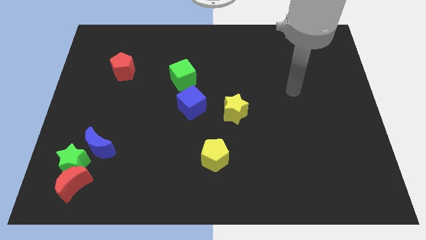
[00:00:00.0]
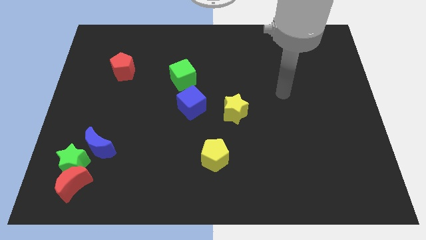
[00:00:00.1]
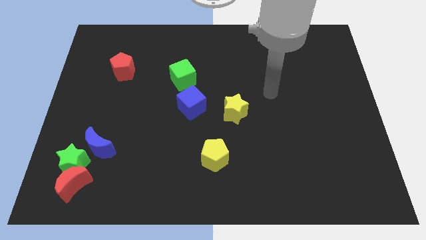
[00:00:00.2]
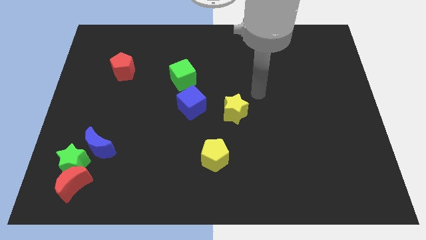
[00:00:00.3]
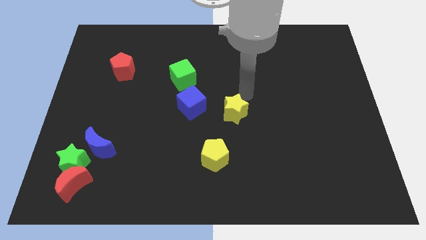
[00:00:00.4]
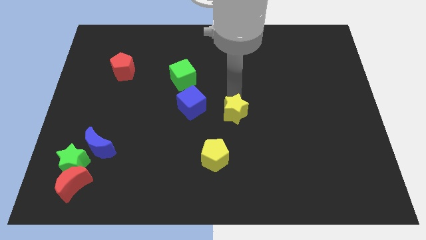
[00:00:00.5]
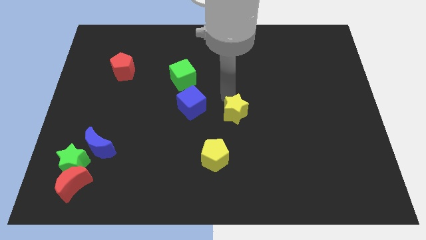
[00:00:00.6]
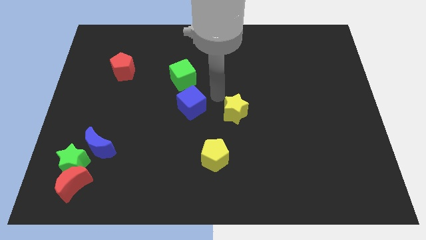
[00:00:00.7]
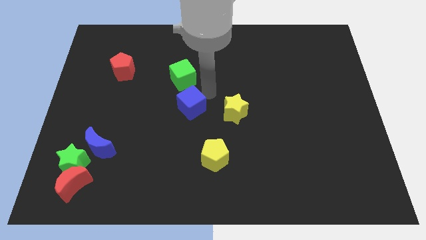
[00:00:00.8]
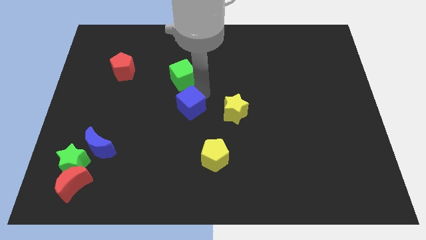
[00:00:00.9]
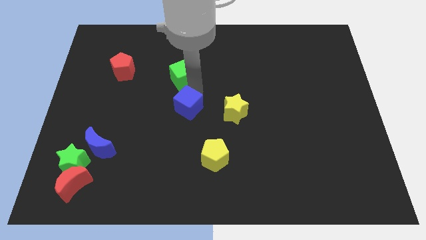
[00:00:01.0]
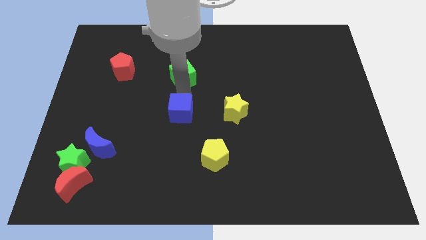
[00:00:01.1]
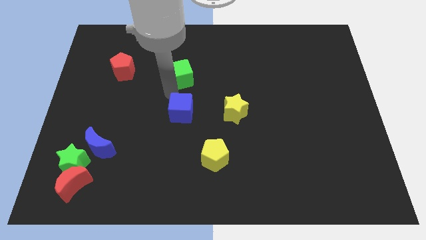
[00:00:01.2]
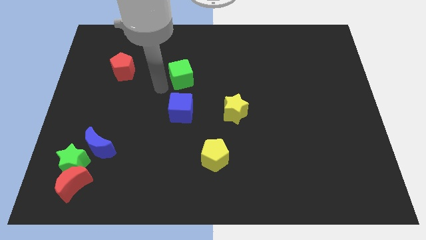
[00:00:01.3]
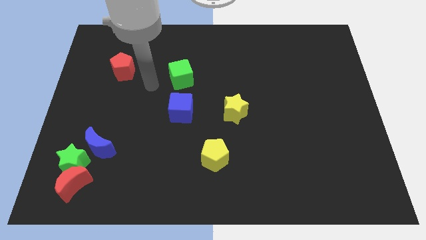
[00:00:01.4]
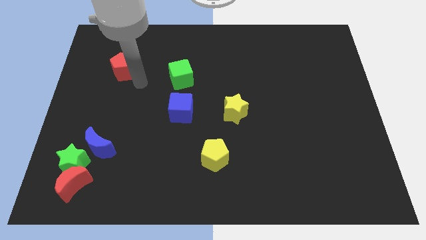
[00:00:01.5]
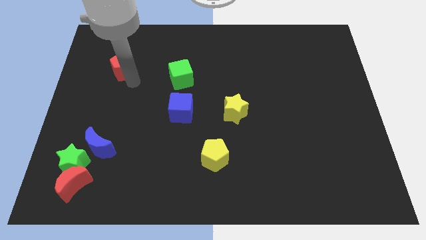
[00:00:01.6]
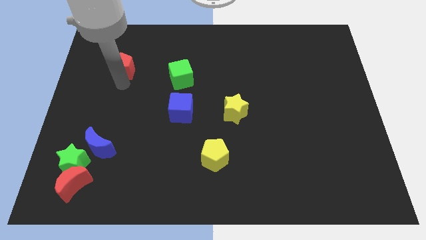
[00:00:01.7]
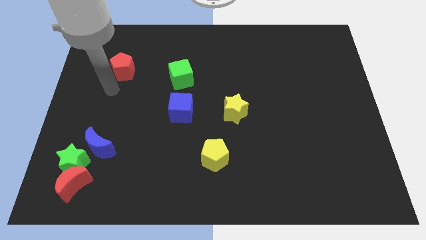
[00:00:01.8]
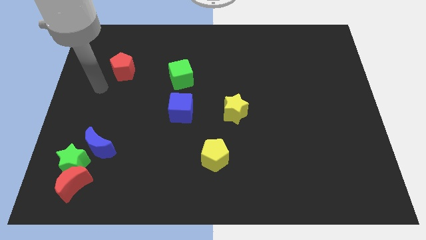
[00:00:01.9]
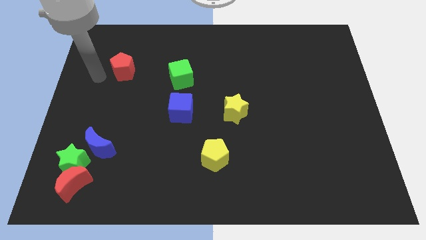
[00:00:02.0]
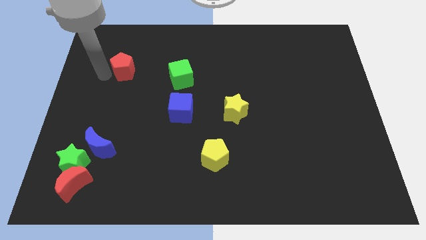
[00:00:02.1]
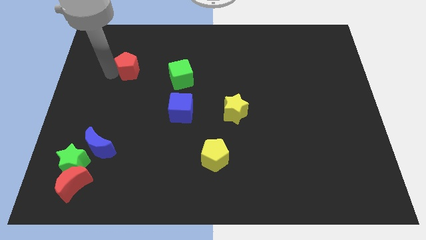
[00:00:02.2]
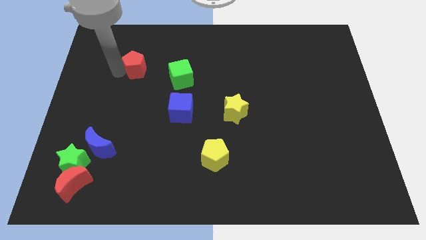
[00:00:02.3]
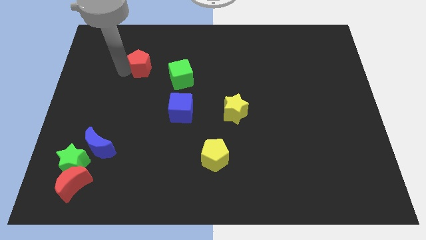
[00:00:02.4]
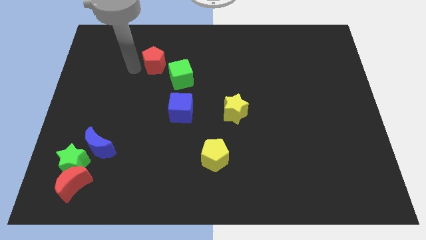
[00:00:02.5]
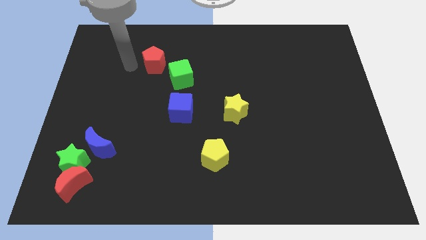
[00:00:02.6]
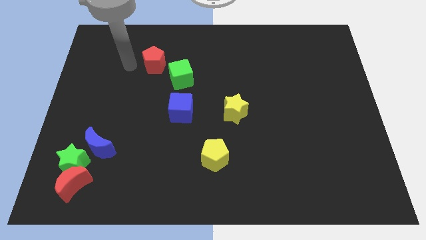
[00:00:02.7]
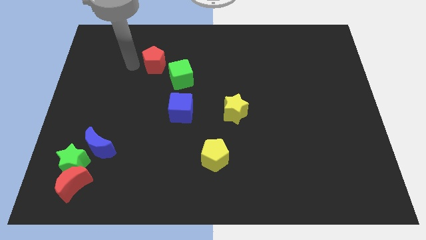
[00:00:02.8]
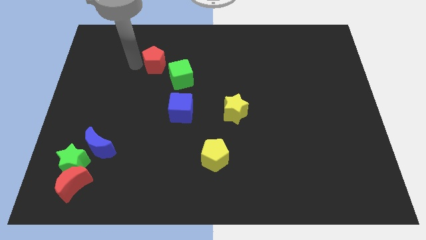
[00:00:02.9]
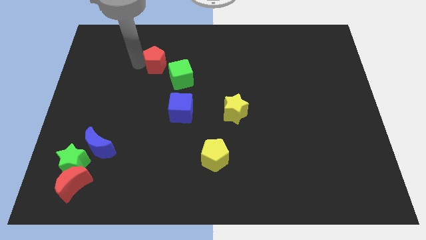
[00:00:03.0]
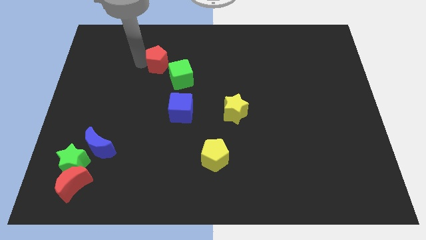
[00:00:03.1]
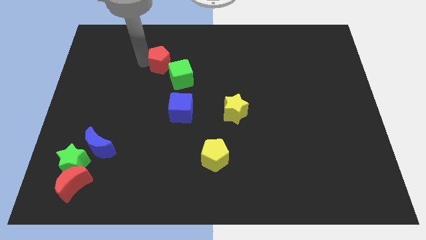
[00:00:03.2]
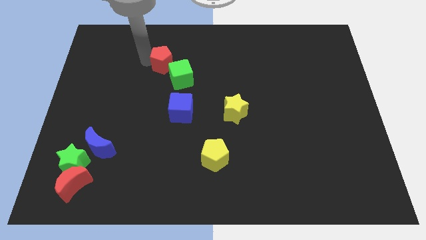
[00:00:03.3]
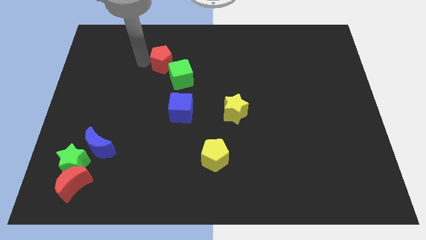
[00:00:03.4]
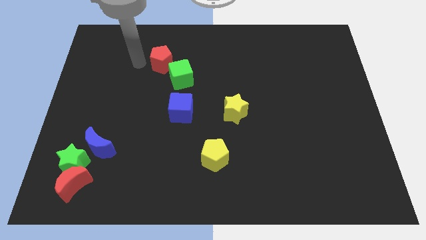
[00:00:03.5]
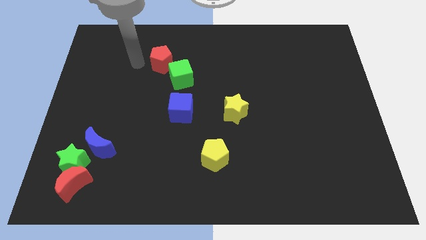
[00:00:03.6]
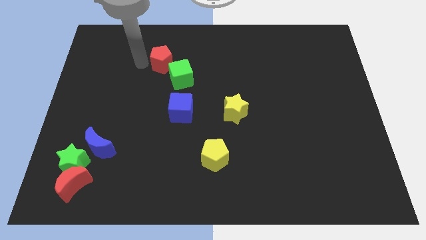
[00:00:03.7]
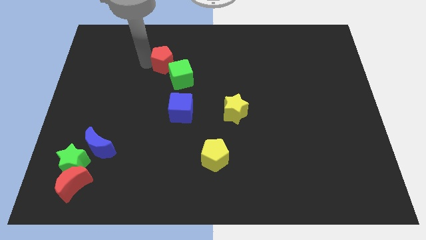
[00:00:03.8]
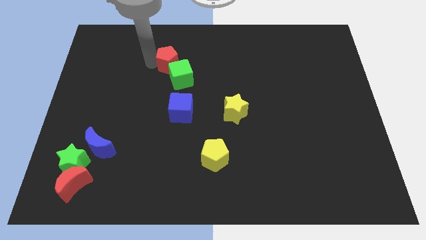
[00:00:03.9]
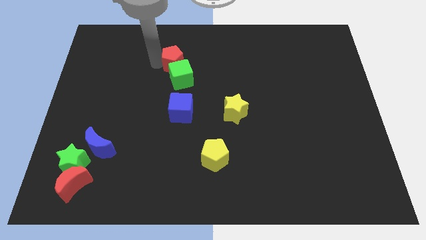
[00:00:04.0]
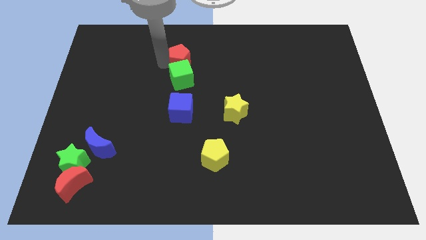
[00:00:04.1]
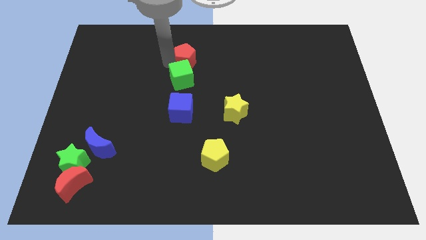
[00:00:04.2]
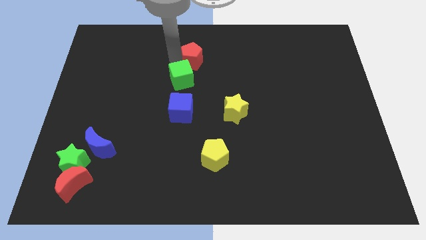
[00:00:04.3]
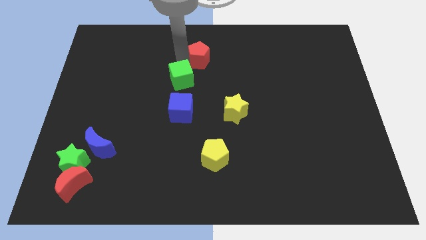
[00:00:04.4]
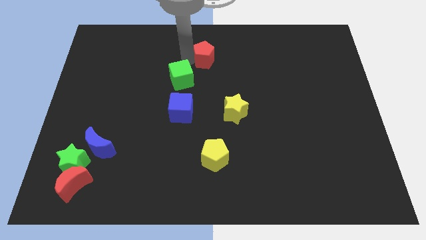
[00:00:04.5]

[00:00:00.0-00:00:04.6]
slide the red pentagon to the right

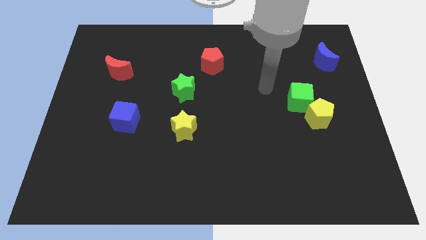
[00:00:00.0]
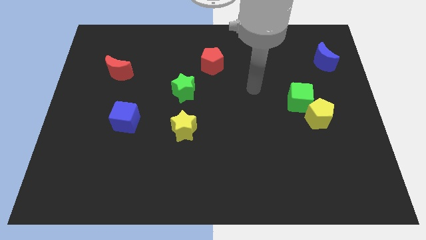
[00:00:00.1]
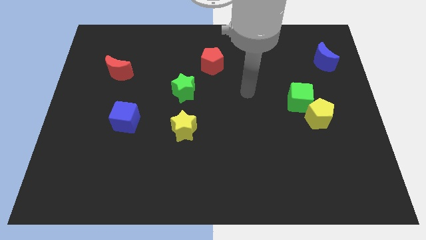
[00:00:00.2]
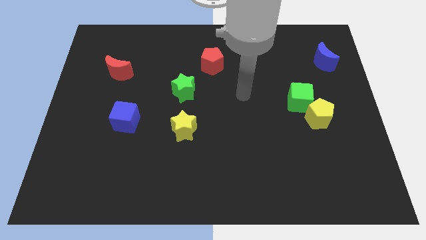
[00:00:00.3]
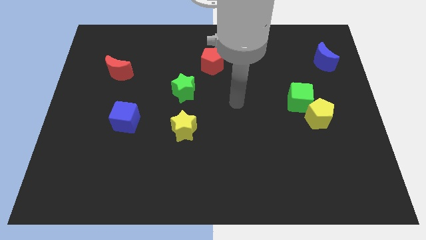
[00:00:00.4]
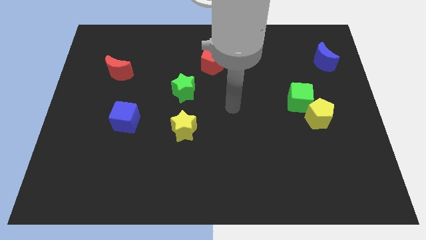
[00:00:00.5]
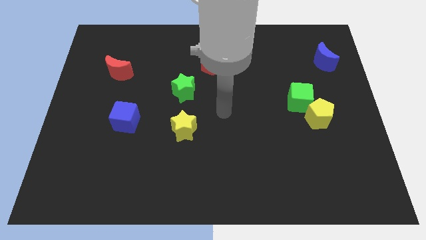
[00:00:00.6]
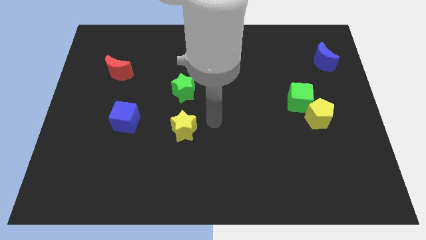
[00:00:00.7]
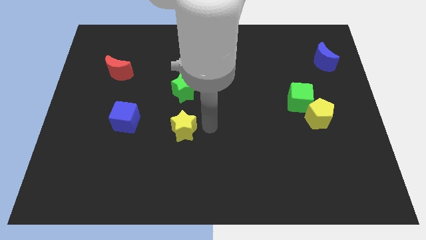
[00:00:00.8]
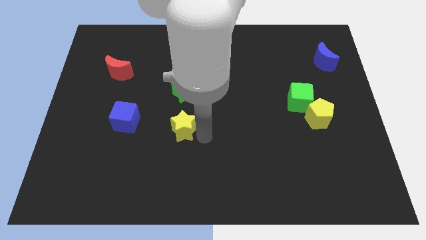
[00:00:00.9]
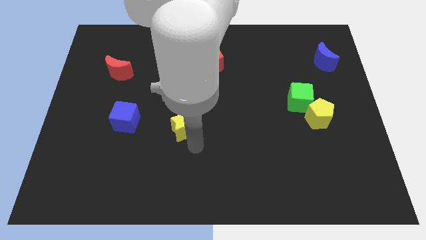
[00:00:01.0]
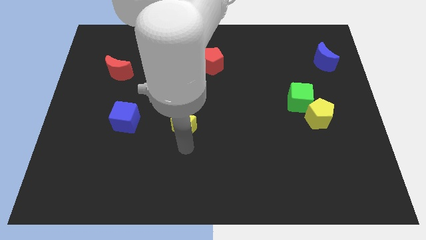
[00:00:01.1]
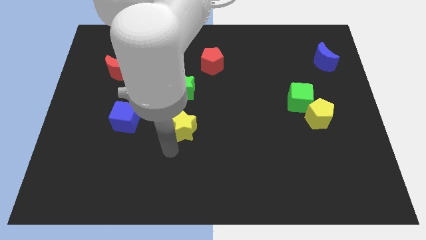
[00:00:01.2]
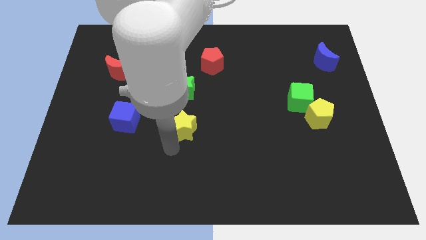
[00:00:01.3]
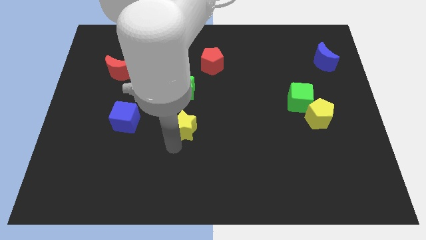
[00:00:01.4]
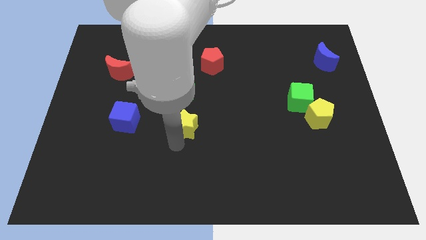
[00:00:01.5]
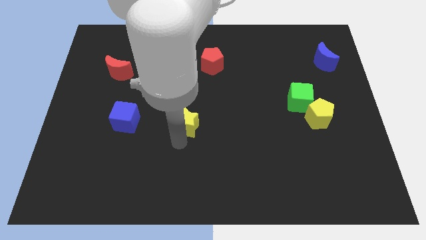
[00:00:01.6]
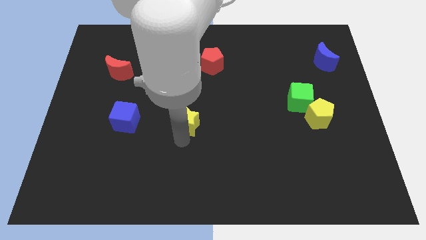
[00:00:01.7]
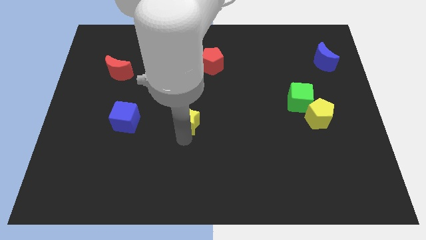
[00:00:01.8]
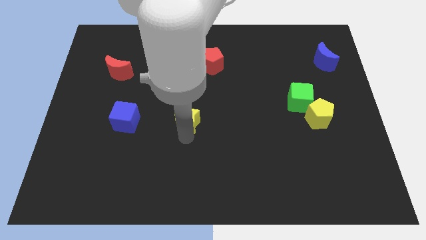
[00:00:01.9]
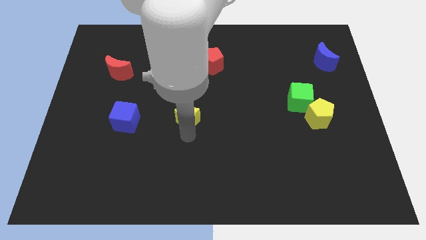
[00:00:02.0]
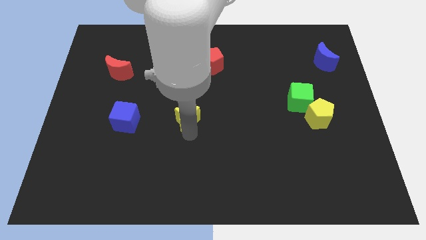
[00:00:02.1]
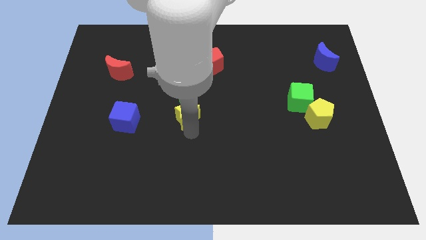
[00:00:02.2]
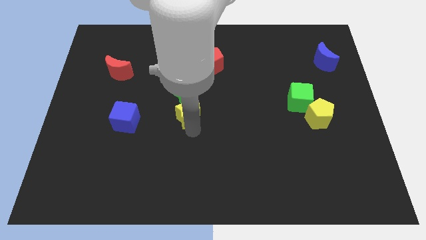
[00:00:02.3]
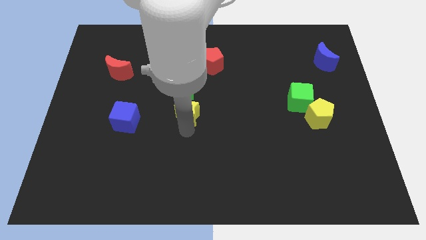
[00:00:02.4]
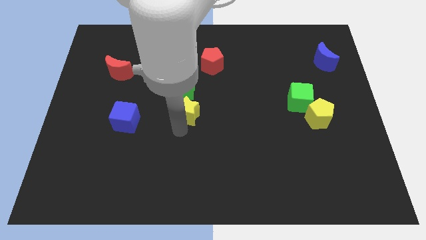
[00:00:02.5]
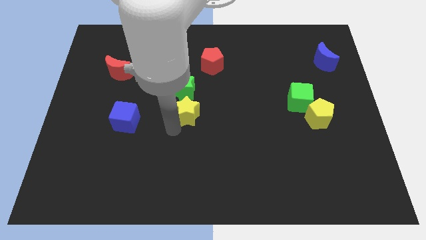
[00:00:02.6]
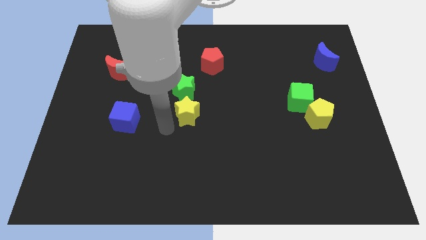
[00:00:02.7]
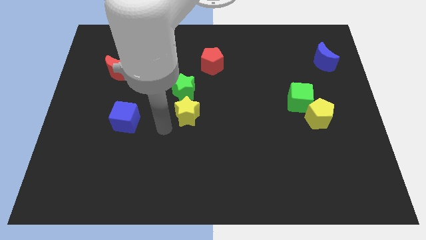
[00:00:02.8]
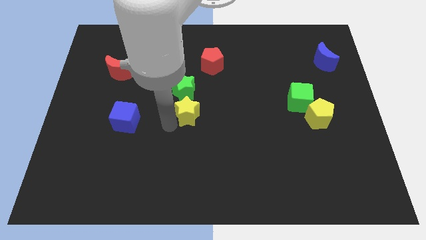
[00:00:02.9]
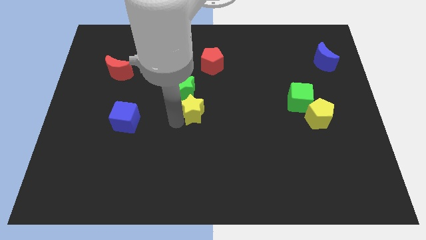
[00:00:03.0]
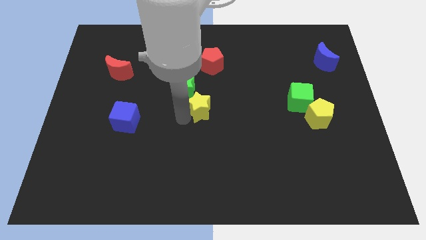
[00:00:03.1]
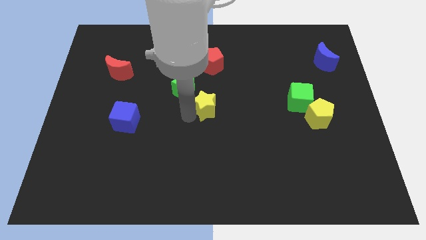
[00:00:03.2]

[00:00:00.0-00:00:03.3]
push the yellow star a little bit up and right diagonally
